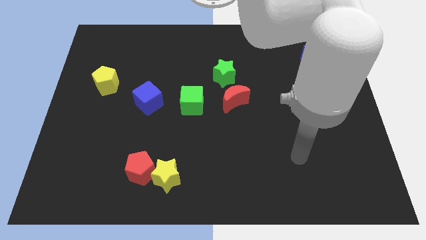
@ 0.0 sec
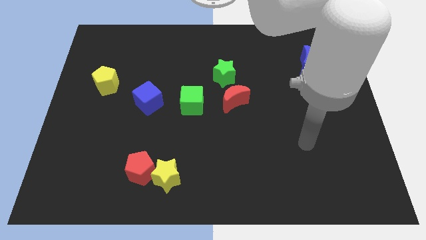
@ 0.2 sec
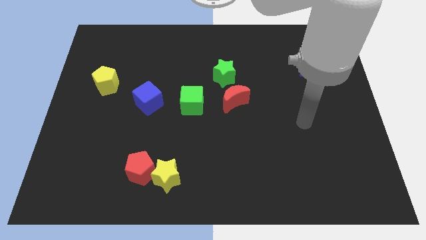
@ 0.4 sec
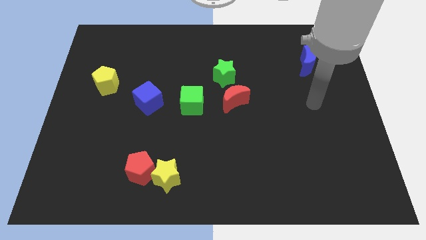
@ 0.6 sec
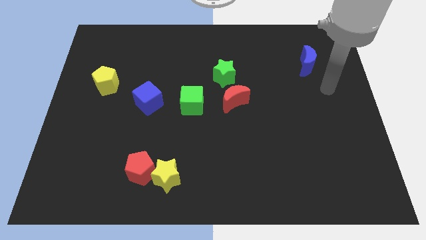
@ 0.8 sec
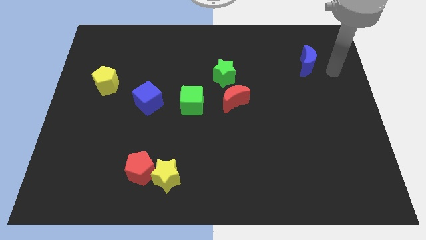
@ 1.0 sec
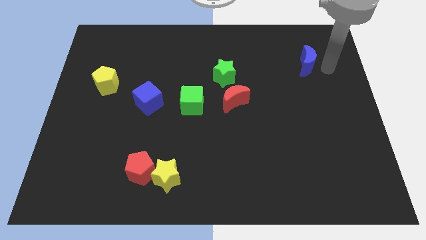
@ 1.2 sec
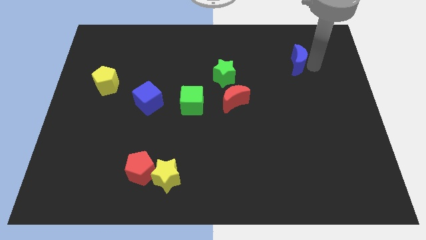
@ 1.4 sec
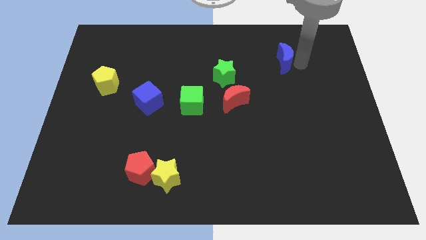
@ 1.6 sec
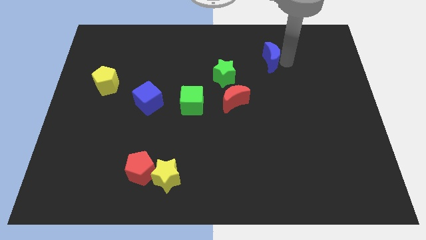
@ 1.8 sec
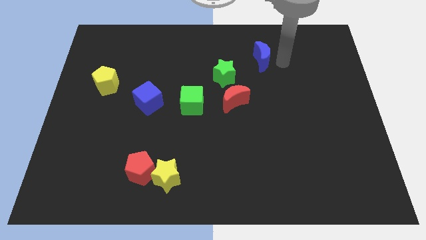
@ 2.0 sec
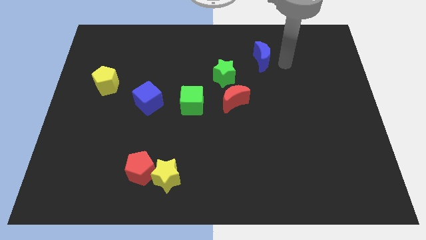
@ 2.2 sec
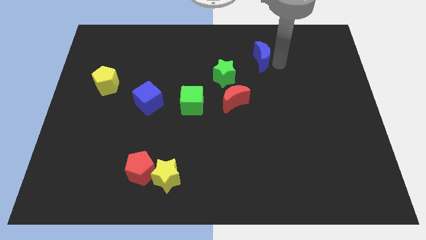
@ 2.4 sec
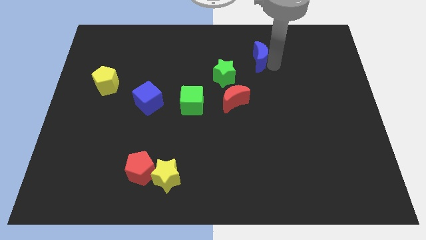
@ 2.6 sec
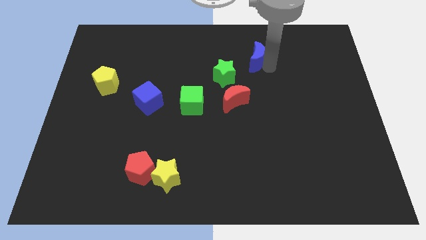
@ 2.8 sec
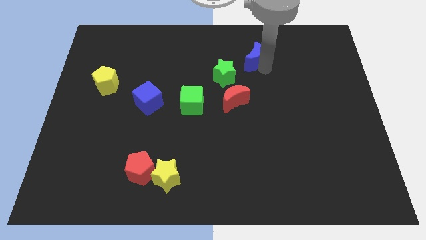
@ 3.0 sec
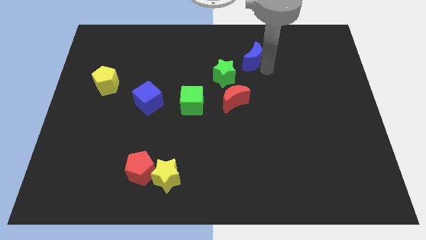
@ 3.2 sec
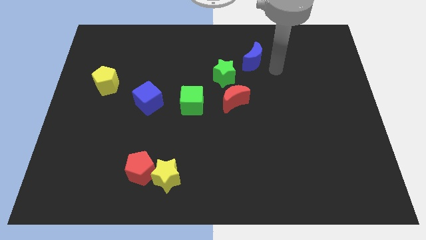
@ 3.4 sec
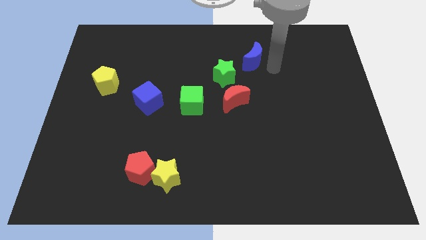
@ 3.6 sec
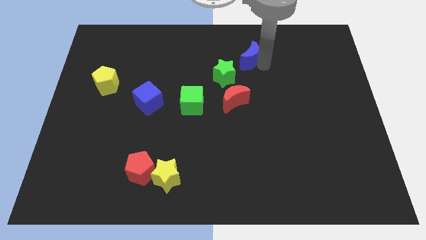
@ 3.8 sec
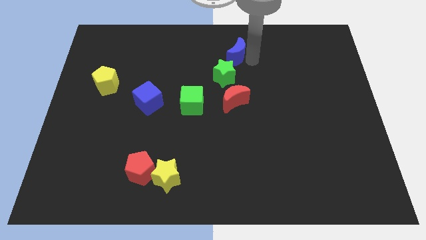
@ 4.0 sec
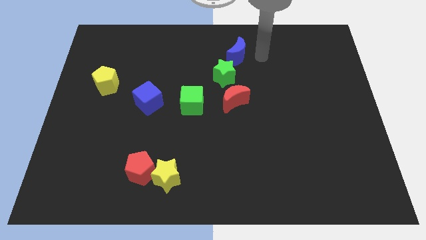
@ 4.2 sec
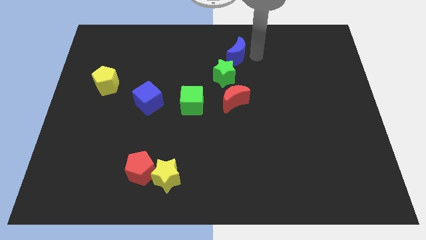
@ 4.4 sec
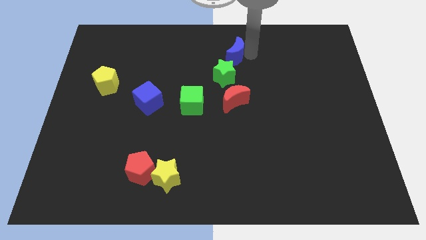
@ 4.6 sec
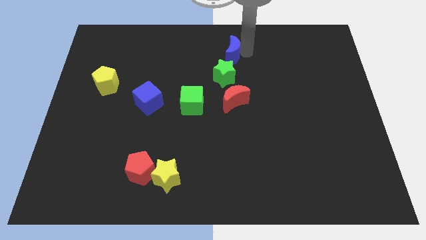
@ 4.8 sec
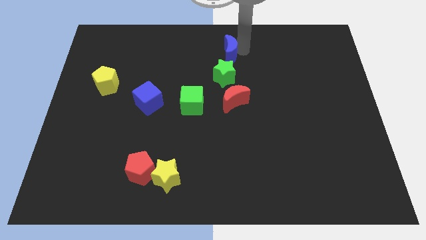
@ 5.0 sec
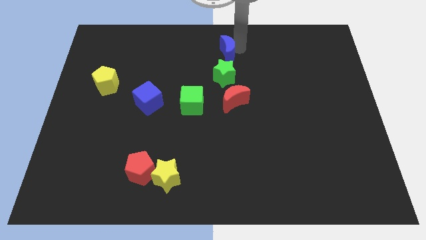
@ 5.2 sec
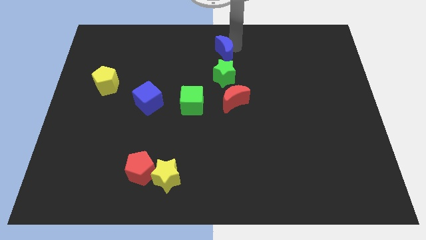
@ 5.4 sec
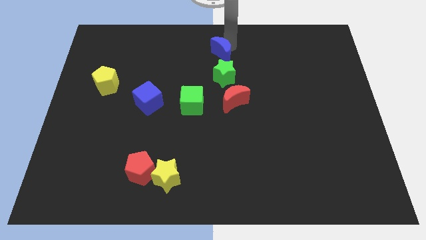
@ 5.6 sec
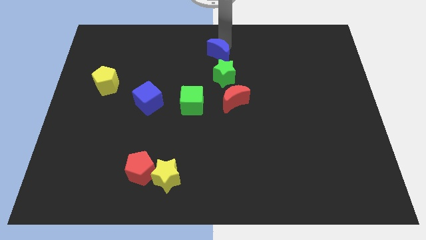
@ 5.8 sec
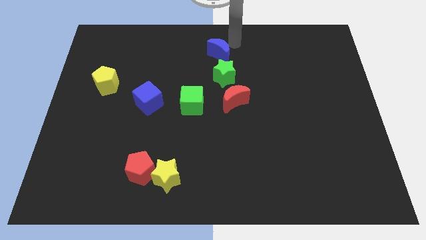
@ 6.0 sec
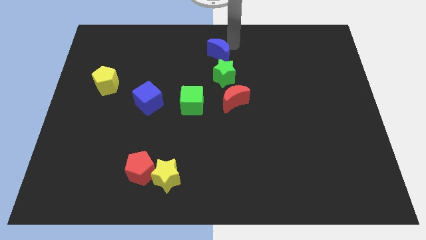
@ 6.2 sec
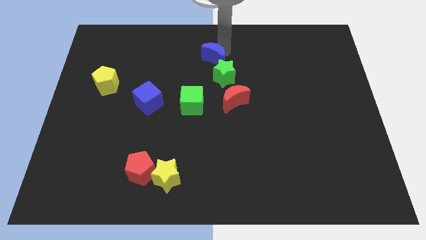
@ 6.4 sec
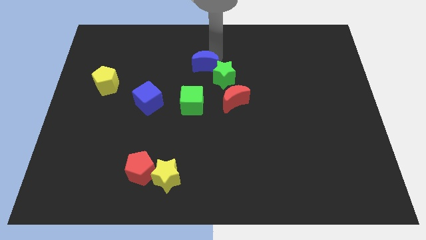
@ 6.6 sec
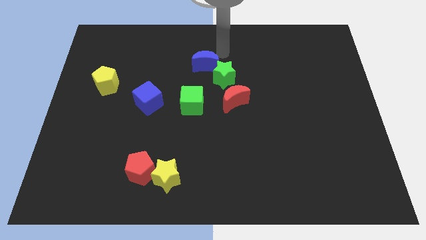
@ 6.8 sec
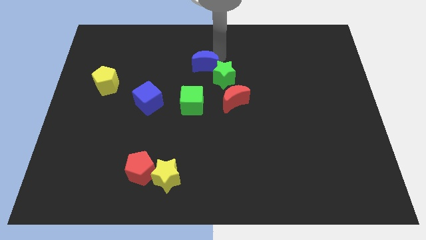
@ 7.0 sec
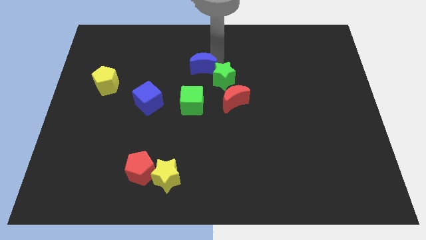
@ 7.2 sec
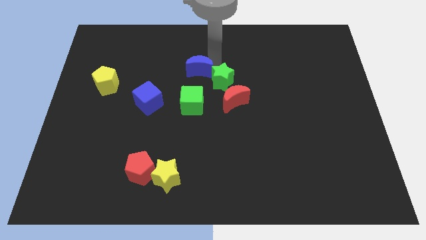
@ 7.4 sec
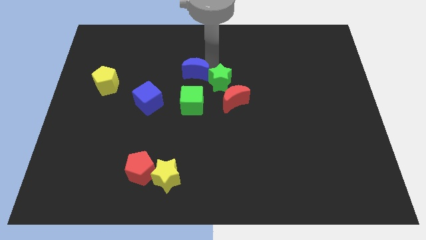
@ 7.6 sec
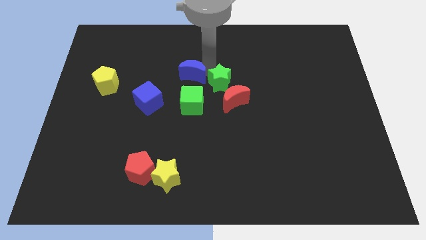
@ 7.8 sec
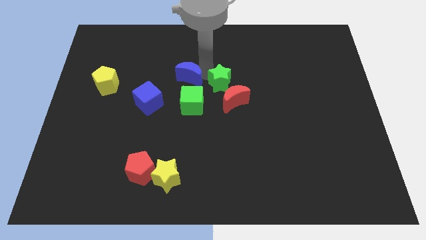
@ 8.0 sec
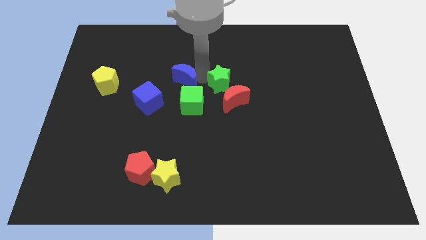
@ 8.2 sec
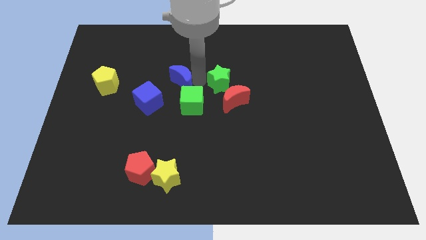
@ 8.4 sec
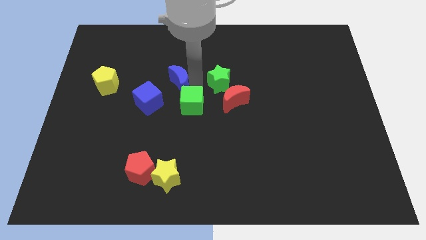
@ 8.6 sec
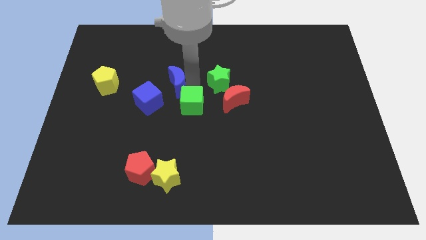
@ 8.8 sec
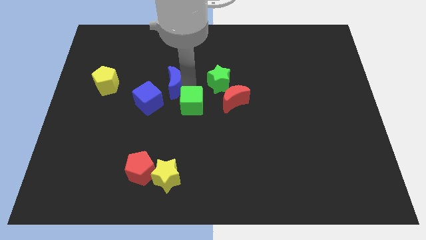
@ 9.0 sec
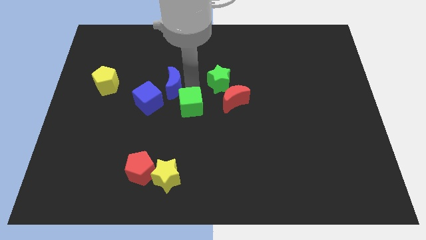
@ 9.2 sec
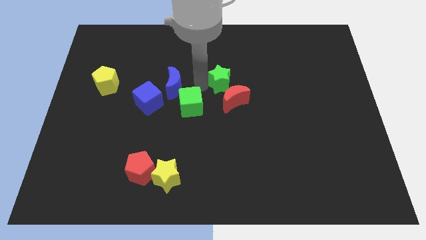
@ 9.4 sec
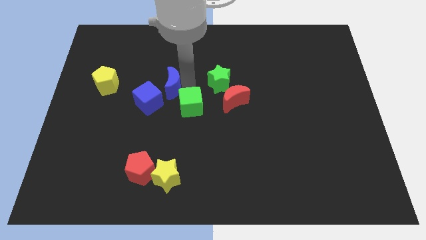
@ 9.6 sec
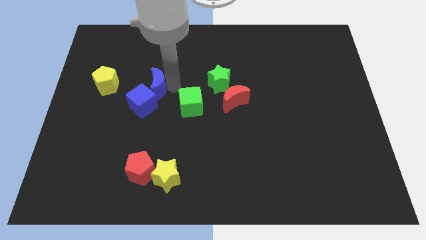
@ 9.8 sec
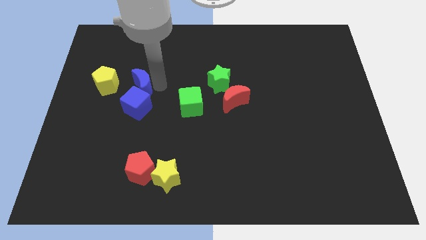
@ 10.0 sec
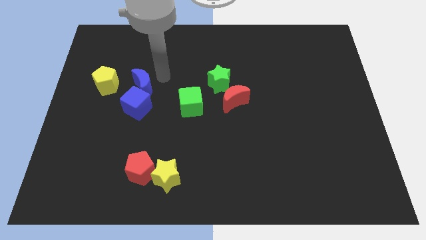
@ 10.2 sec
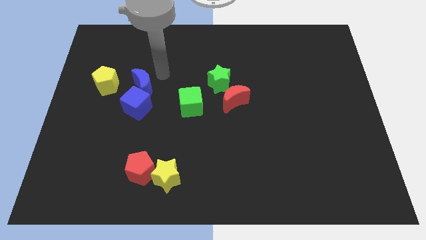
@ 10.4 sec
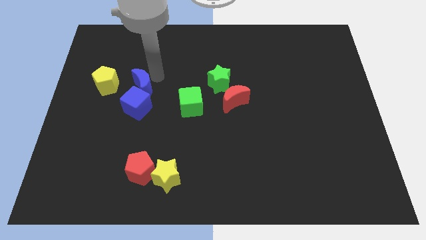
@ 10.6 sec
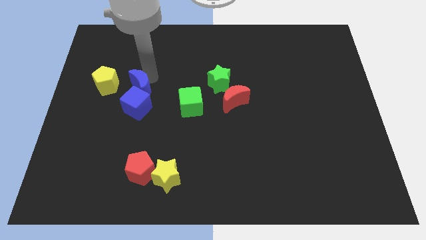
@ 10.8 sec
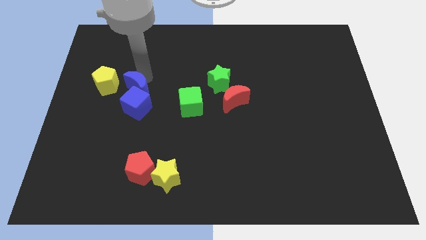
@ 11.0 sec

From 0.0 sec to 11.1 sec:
put the blue moon diagonally down and to the right of the yellow pentagon

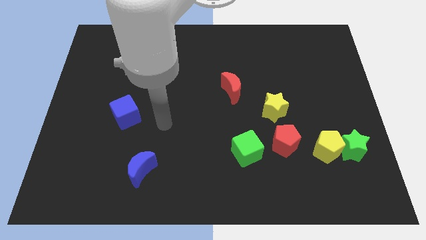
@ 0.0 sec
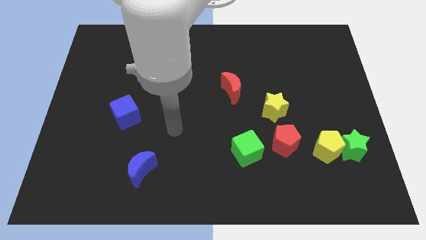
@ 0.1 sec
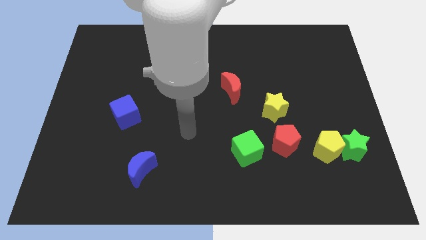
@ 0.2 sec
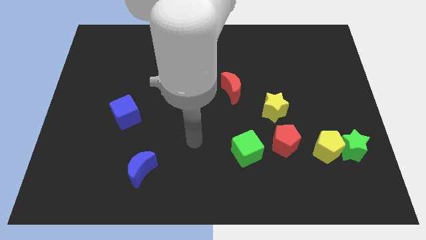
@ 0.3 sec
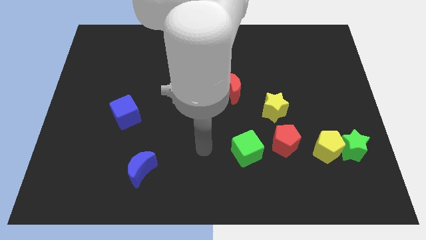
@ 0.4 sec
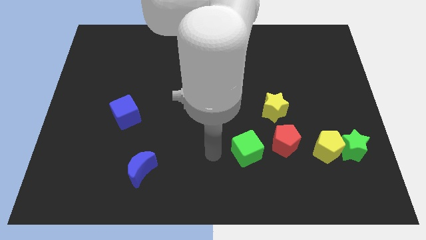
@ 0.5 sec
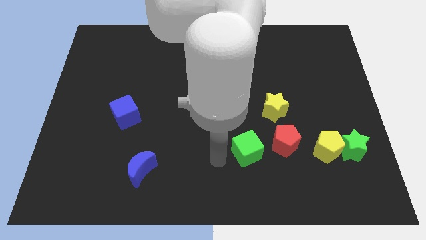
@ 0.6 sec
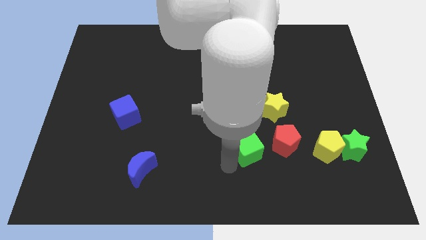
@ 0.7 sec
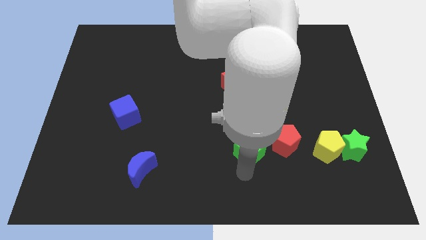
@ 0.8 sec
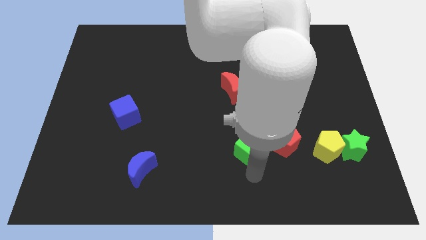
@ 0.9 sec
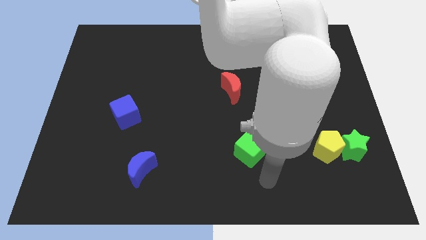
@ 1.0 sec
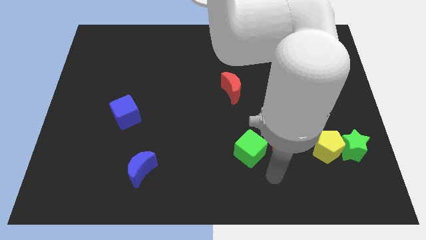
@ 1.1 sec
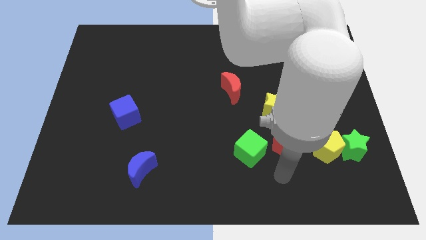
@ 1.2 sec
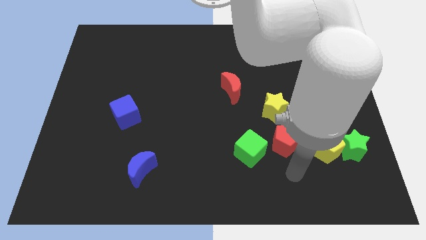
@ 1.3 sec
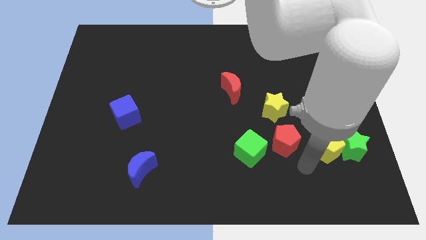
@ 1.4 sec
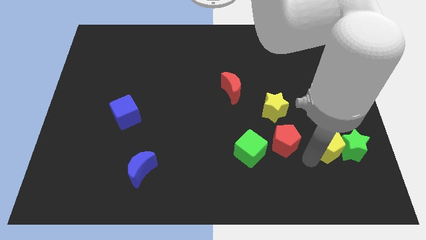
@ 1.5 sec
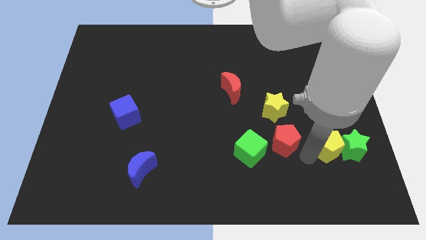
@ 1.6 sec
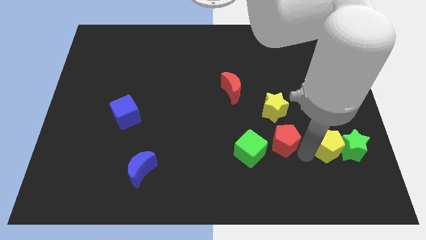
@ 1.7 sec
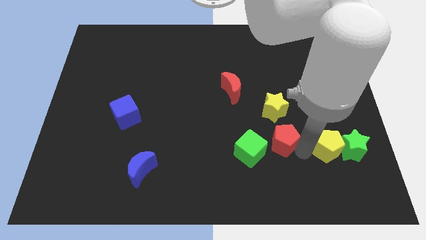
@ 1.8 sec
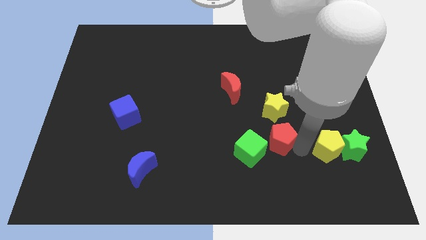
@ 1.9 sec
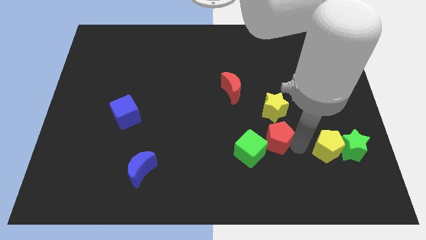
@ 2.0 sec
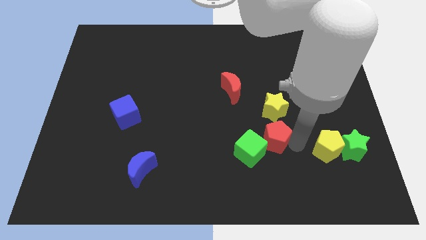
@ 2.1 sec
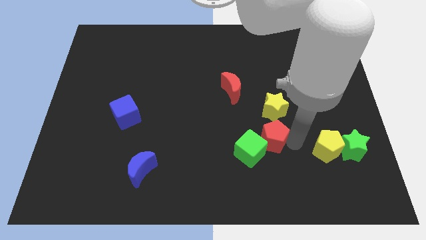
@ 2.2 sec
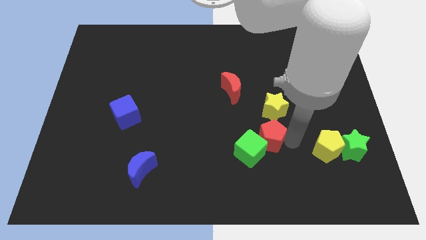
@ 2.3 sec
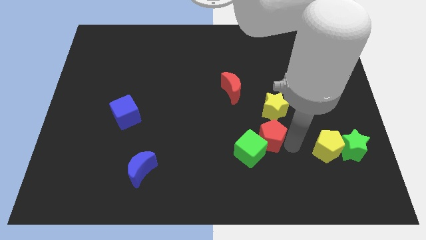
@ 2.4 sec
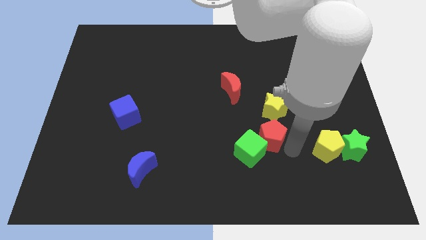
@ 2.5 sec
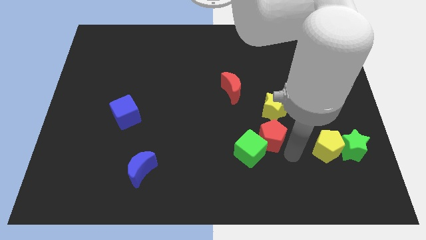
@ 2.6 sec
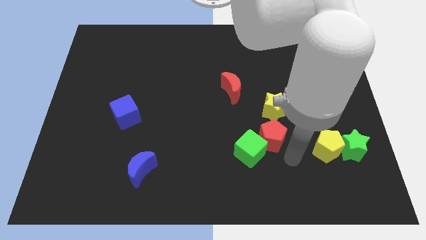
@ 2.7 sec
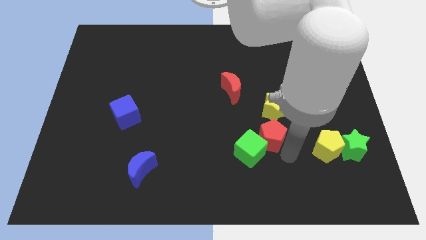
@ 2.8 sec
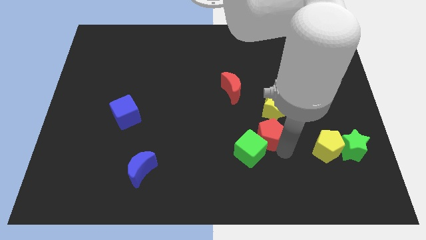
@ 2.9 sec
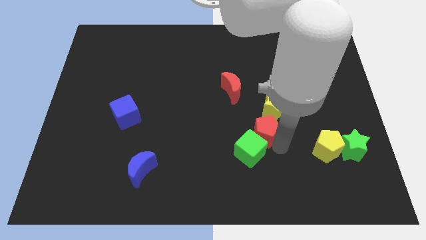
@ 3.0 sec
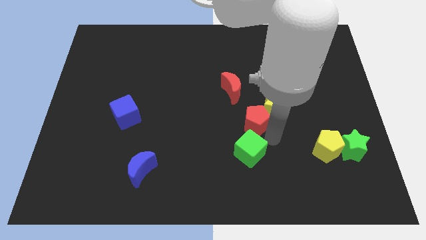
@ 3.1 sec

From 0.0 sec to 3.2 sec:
slide the red pentagon left of the yellow star
